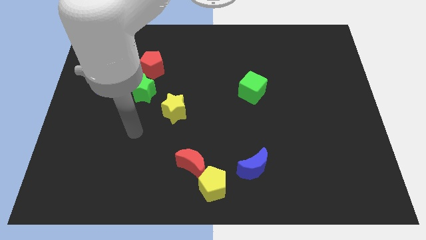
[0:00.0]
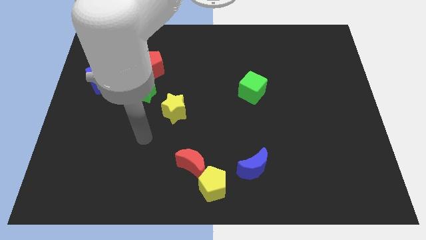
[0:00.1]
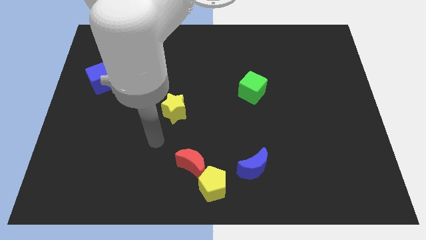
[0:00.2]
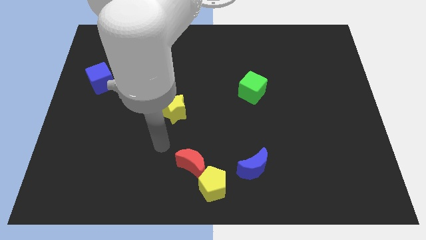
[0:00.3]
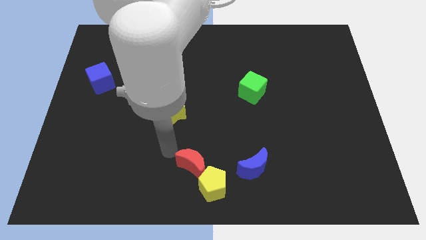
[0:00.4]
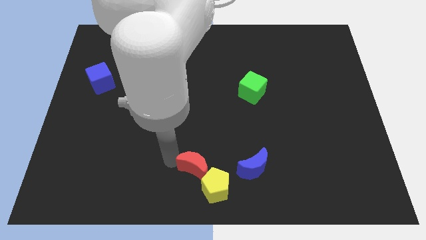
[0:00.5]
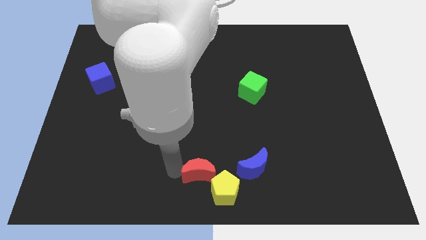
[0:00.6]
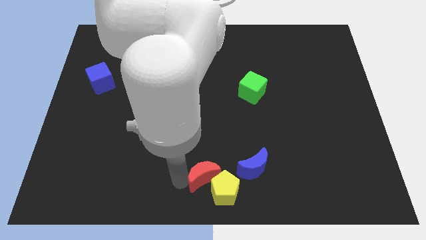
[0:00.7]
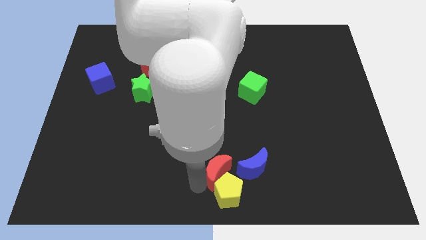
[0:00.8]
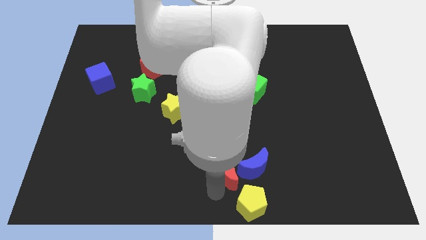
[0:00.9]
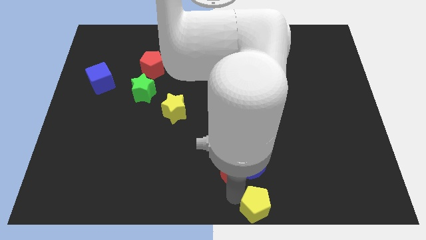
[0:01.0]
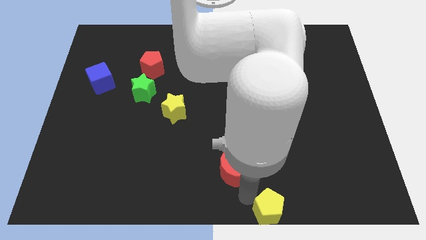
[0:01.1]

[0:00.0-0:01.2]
move the red moon away from the yellow pentagon

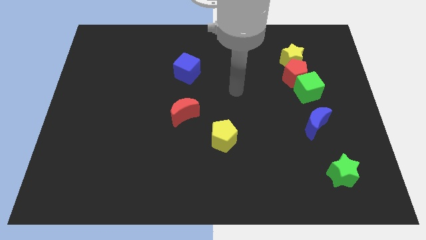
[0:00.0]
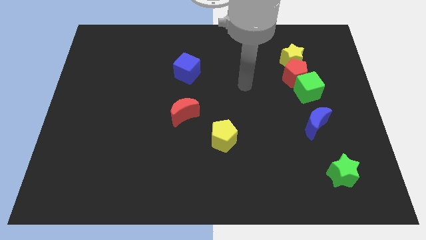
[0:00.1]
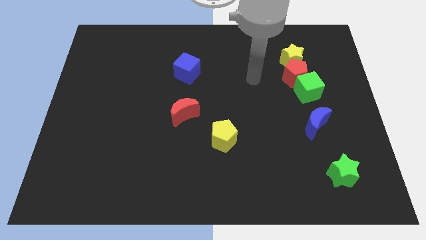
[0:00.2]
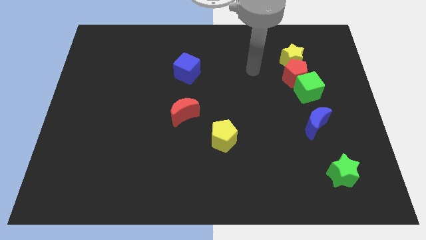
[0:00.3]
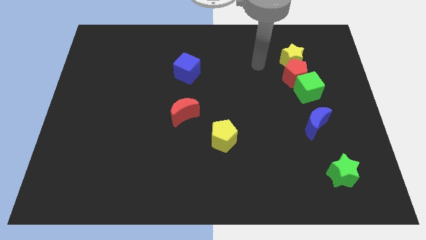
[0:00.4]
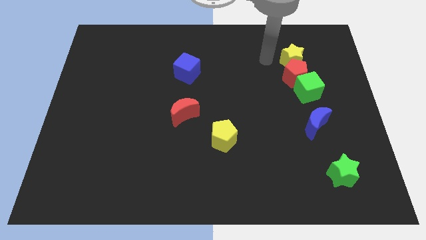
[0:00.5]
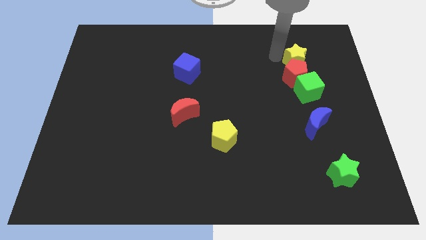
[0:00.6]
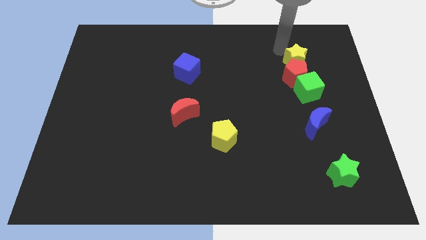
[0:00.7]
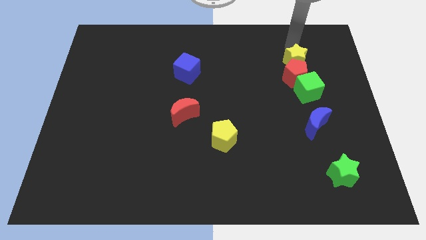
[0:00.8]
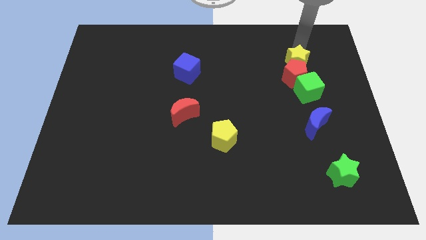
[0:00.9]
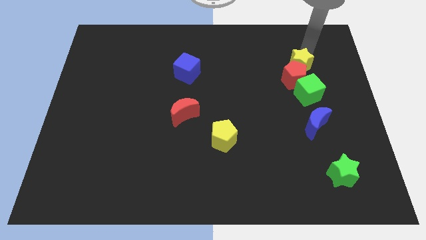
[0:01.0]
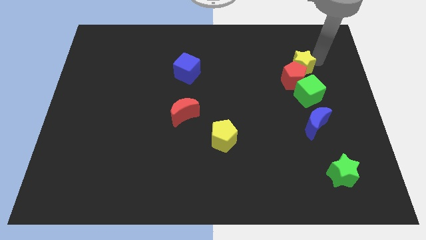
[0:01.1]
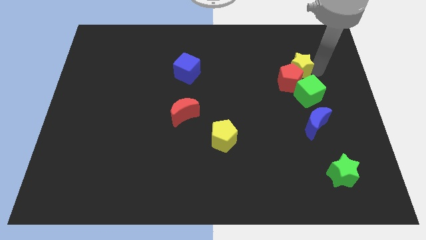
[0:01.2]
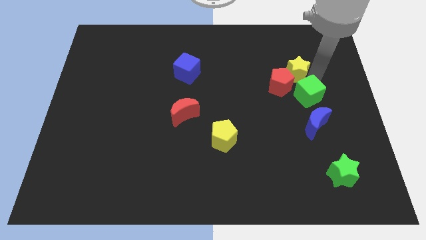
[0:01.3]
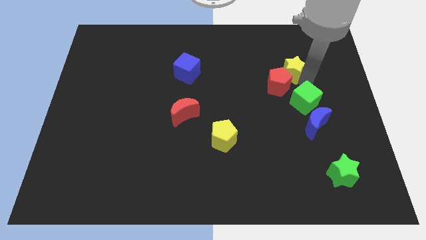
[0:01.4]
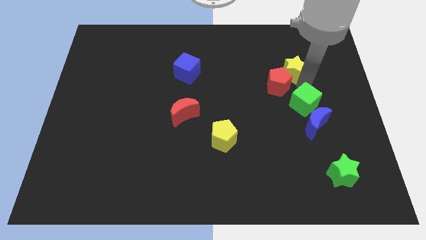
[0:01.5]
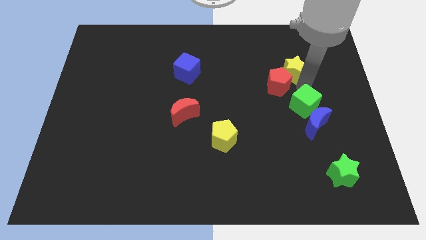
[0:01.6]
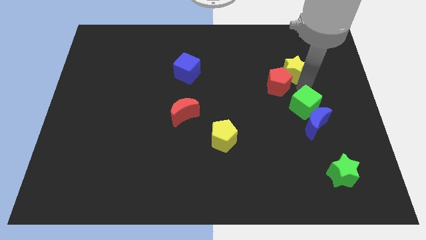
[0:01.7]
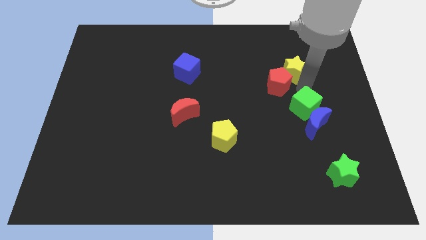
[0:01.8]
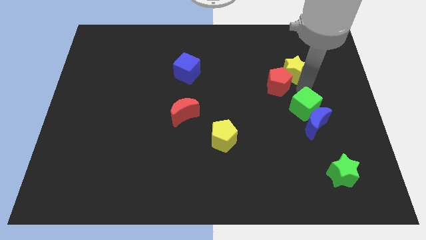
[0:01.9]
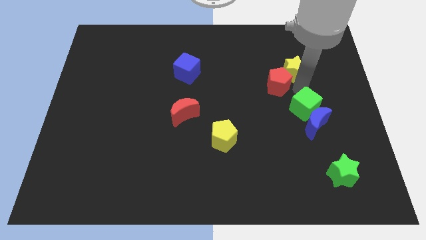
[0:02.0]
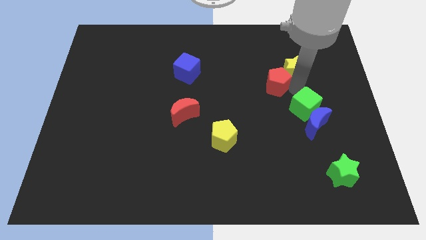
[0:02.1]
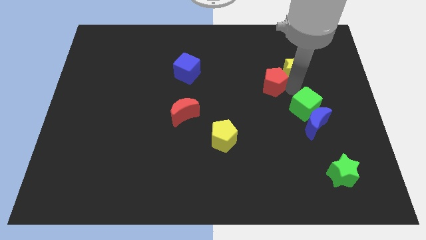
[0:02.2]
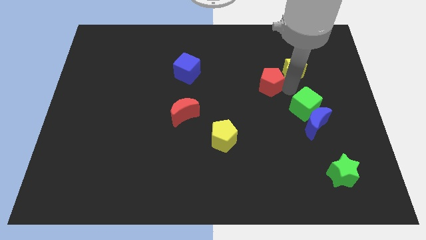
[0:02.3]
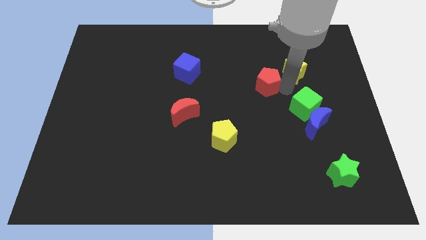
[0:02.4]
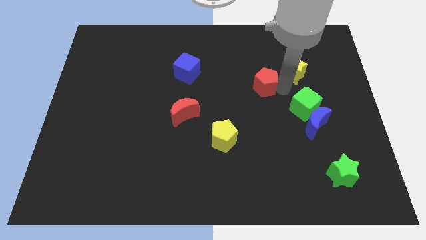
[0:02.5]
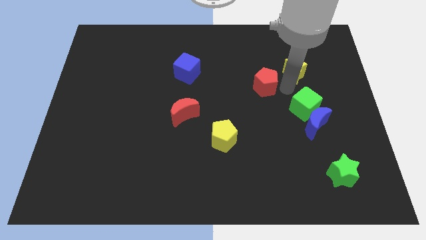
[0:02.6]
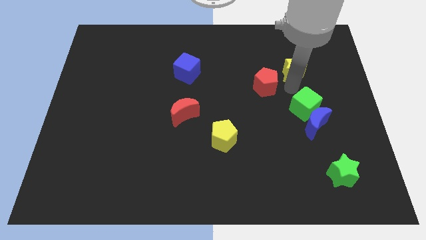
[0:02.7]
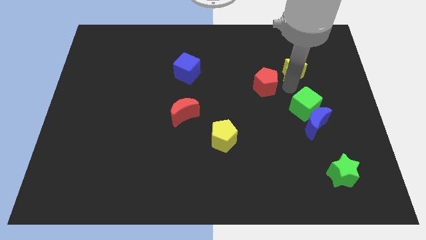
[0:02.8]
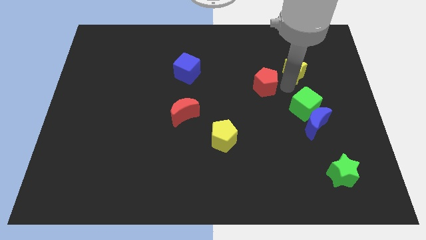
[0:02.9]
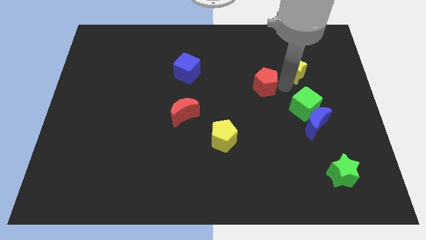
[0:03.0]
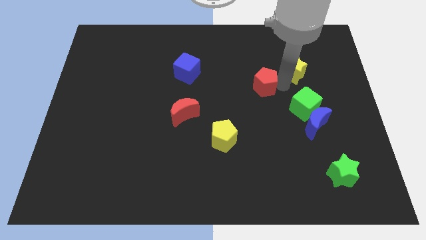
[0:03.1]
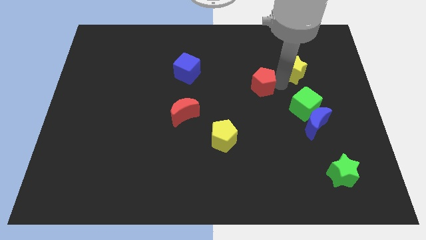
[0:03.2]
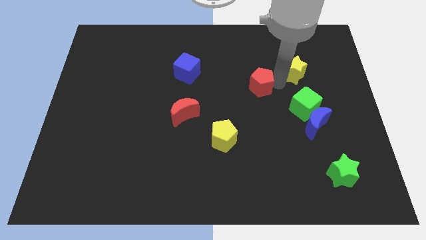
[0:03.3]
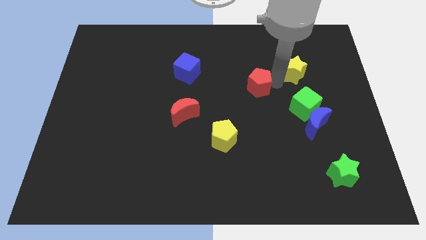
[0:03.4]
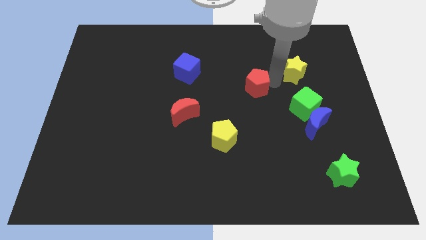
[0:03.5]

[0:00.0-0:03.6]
move the red pentagon away from the yellow star and green cube

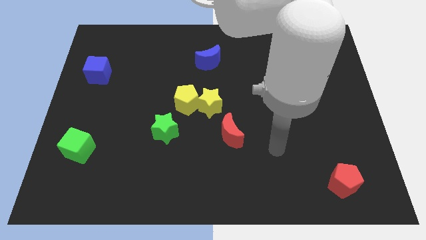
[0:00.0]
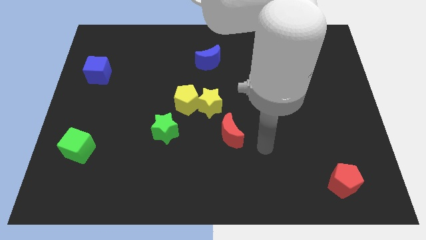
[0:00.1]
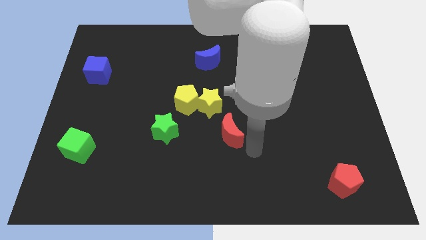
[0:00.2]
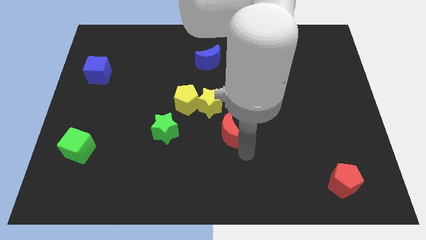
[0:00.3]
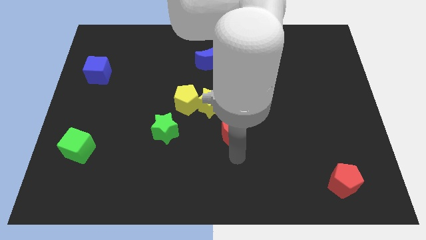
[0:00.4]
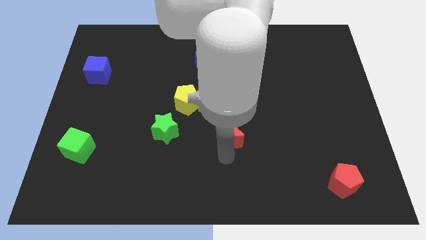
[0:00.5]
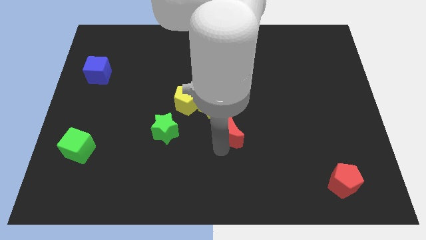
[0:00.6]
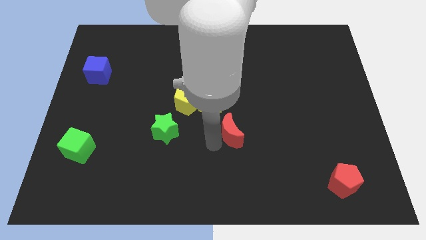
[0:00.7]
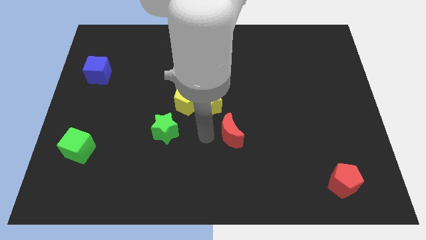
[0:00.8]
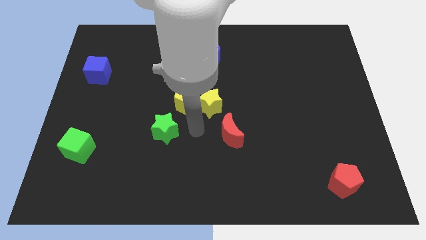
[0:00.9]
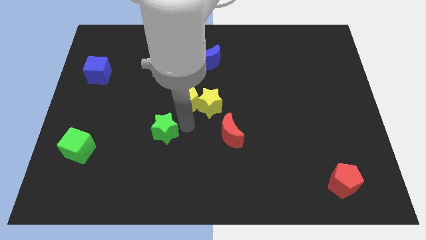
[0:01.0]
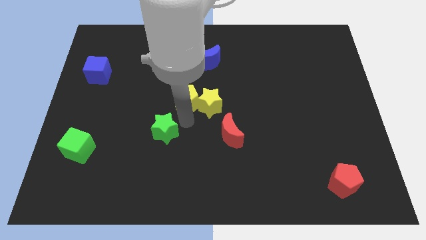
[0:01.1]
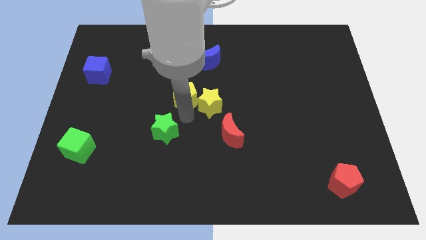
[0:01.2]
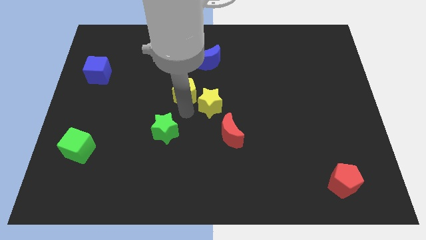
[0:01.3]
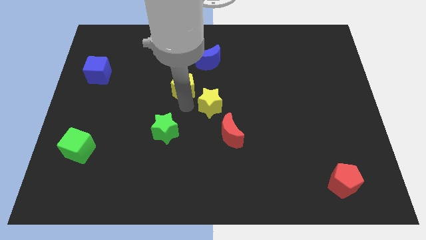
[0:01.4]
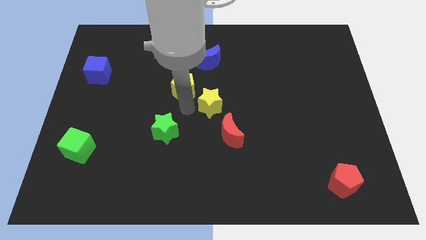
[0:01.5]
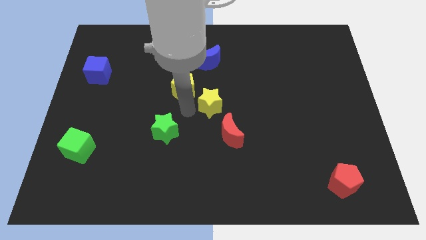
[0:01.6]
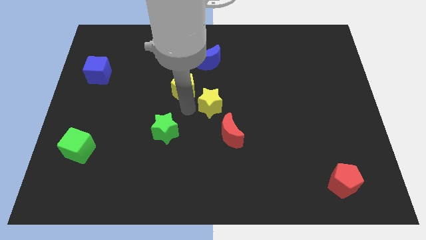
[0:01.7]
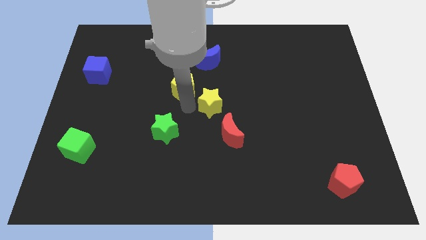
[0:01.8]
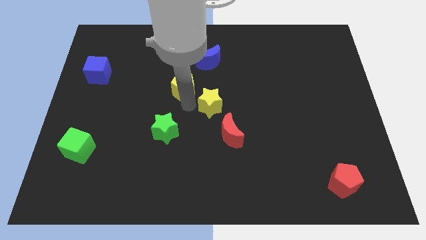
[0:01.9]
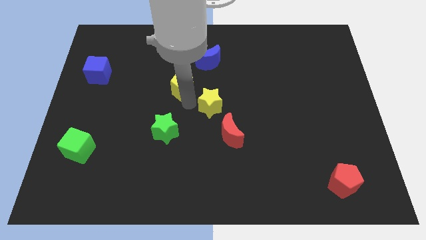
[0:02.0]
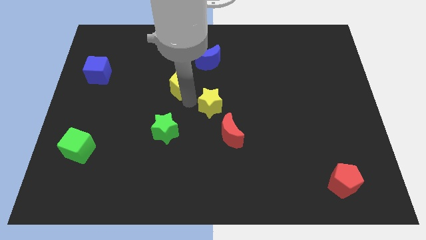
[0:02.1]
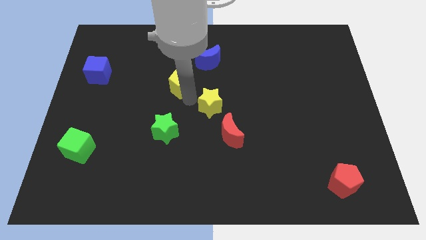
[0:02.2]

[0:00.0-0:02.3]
move the yellow pentagon away from the yellow star and green star

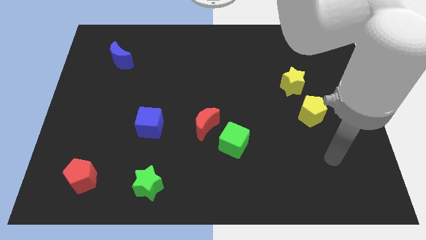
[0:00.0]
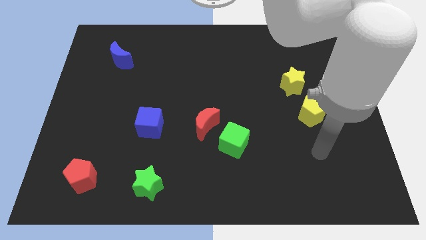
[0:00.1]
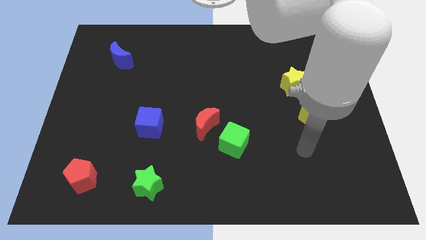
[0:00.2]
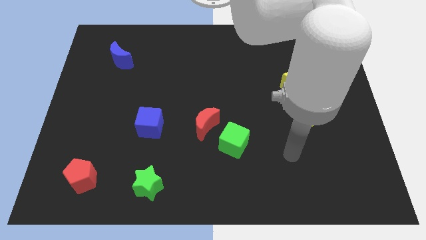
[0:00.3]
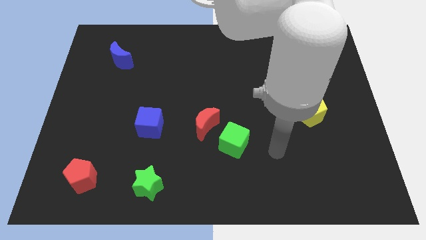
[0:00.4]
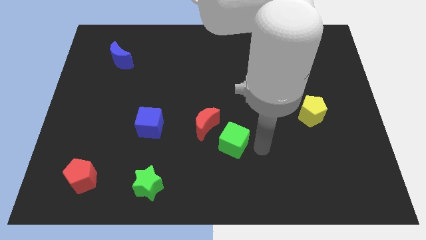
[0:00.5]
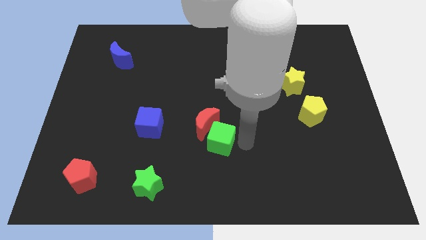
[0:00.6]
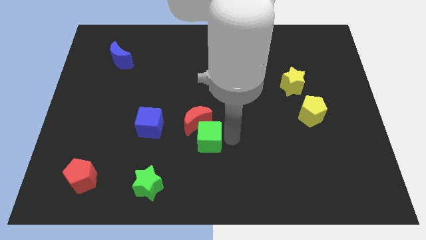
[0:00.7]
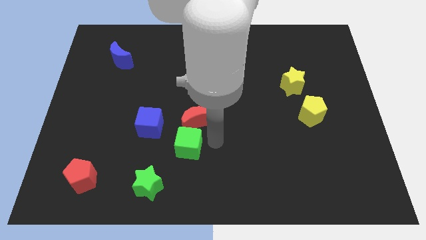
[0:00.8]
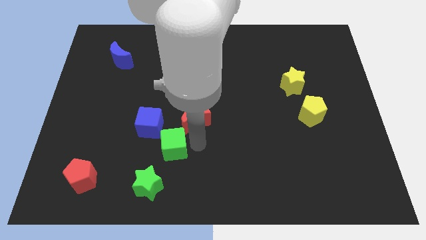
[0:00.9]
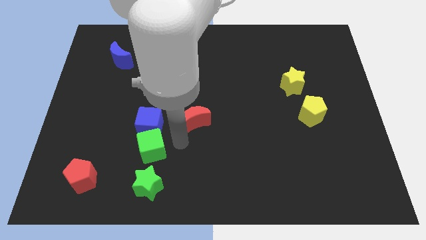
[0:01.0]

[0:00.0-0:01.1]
separate the red moon from the green cube

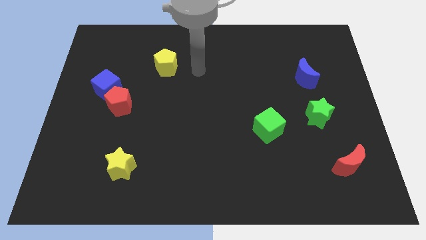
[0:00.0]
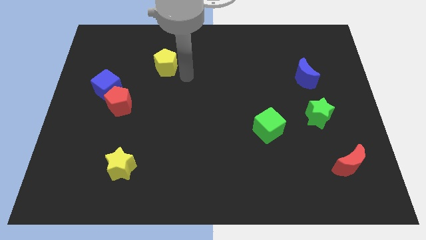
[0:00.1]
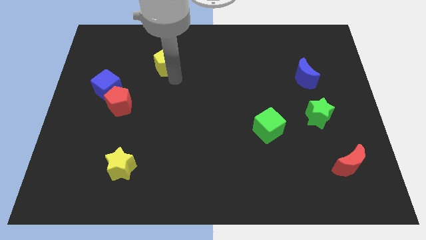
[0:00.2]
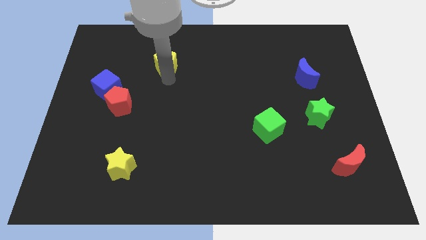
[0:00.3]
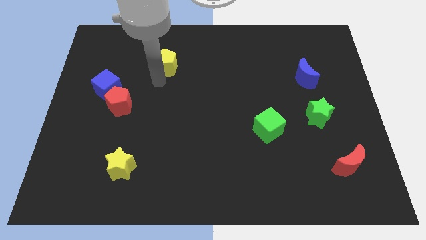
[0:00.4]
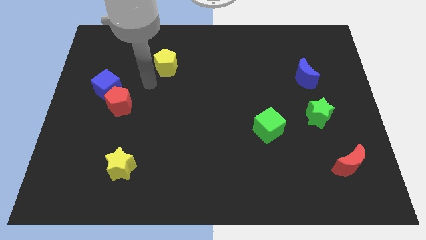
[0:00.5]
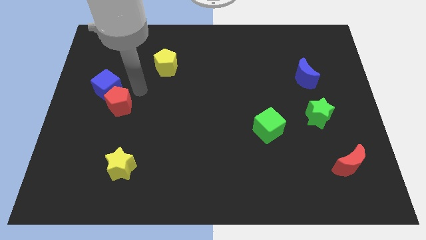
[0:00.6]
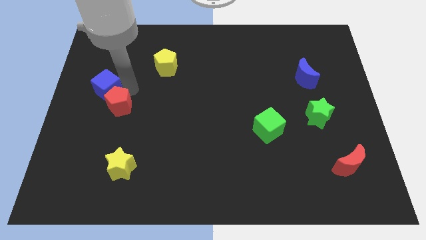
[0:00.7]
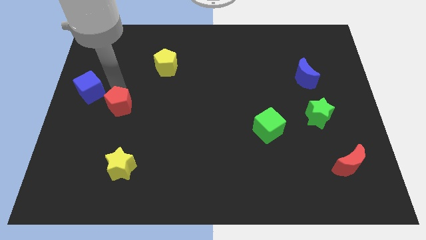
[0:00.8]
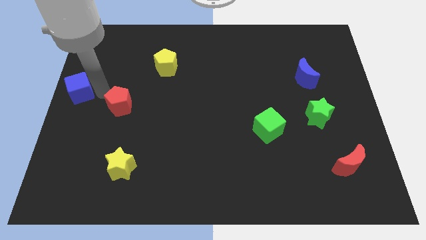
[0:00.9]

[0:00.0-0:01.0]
pull the red pentagon apart from the blue cube

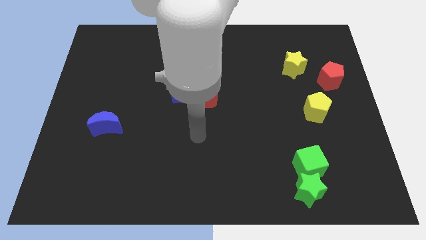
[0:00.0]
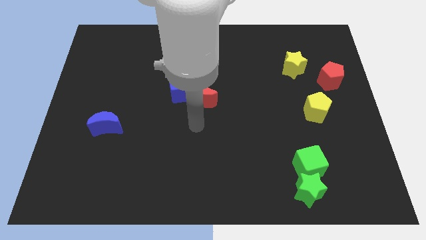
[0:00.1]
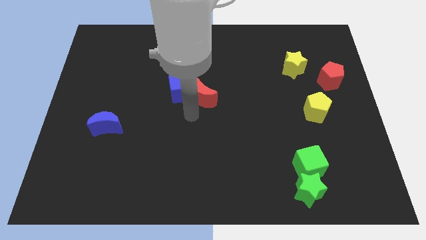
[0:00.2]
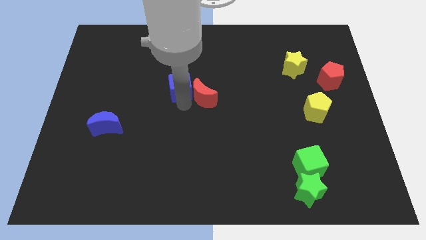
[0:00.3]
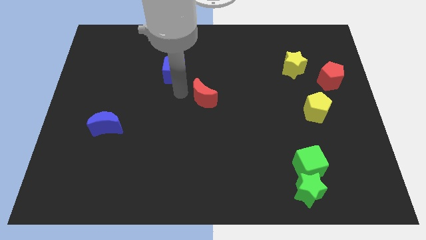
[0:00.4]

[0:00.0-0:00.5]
separate the red moon from the blue cube
